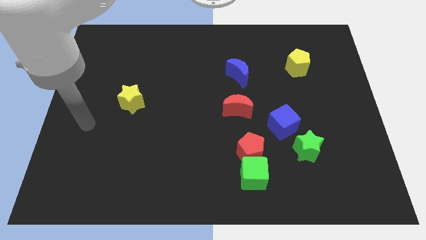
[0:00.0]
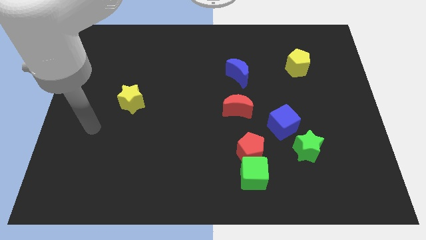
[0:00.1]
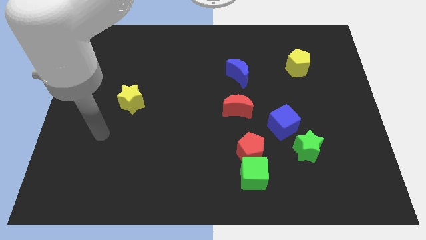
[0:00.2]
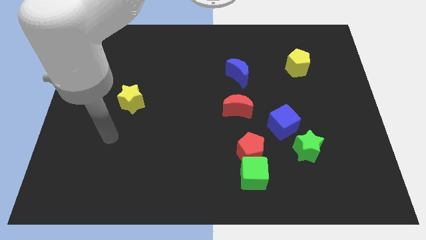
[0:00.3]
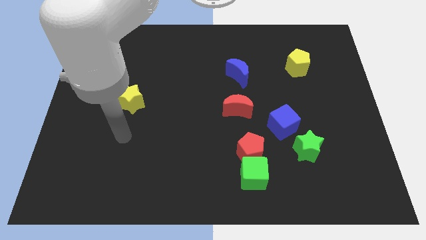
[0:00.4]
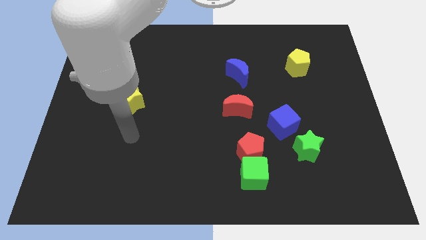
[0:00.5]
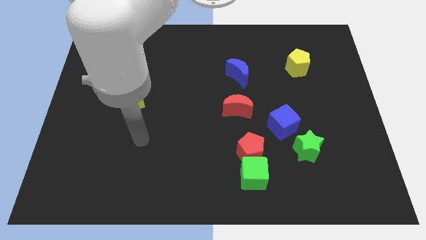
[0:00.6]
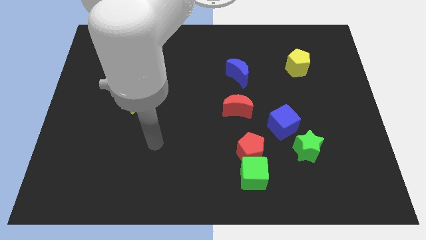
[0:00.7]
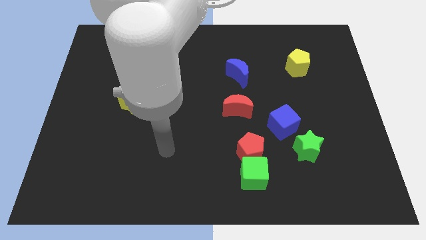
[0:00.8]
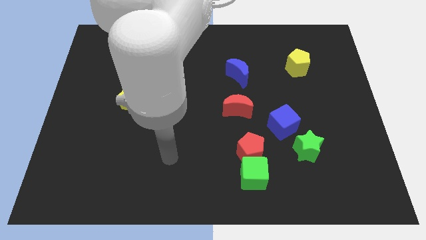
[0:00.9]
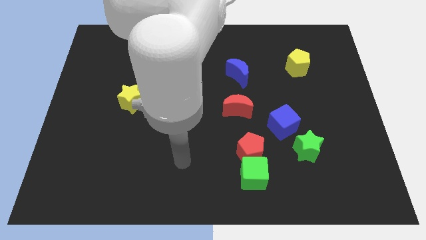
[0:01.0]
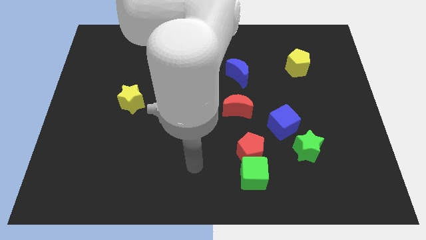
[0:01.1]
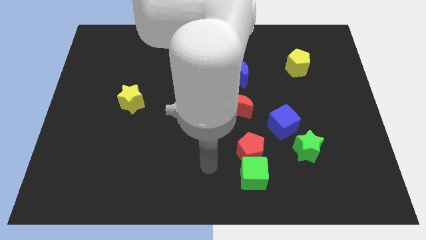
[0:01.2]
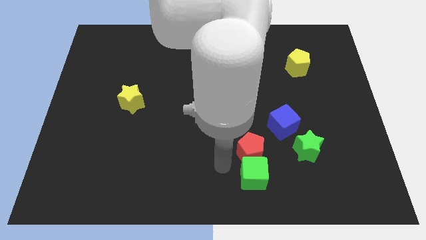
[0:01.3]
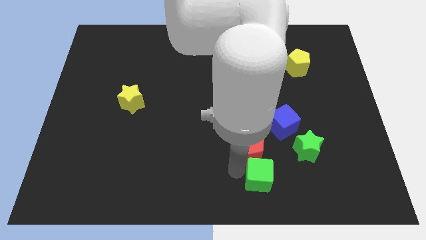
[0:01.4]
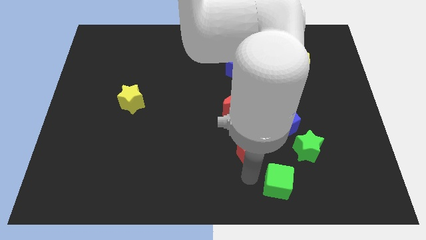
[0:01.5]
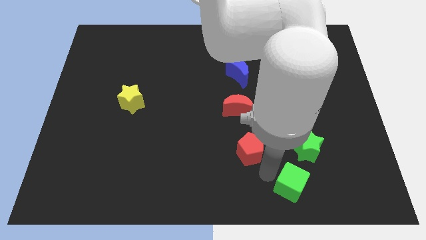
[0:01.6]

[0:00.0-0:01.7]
pull the red pentagon apart from the green cube

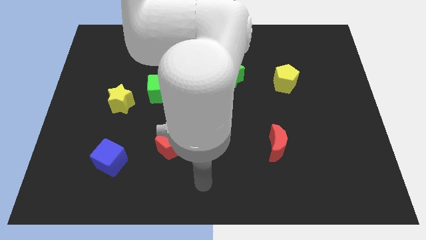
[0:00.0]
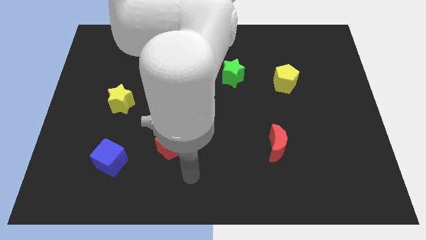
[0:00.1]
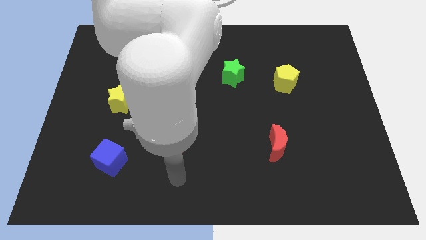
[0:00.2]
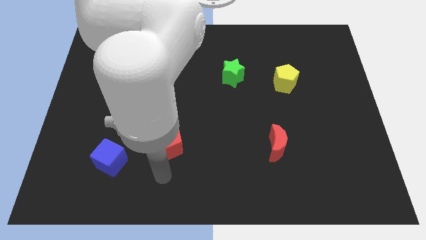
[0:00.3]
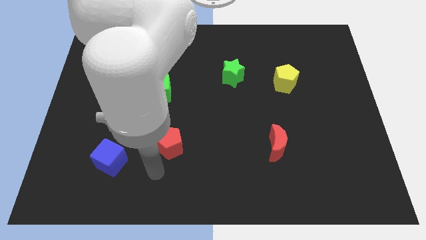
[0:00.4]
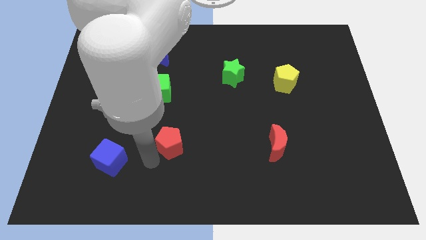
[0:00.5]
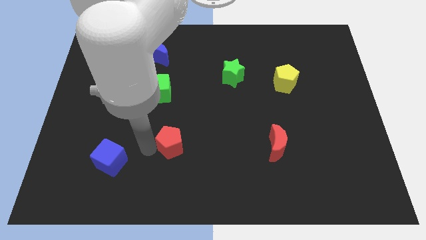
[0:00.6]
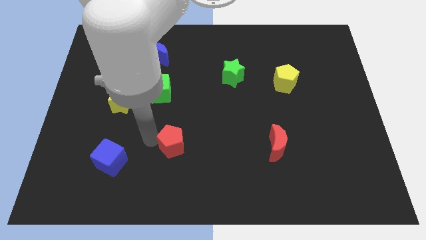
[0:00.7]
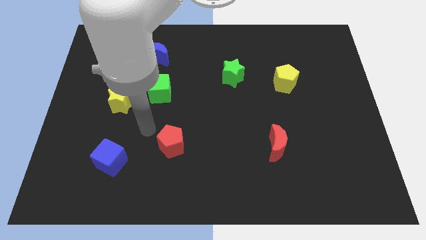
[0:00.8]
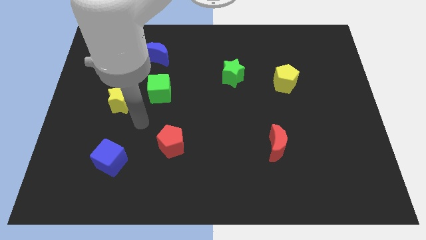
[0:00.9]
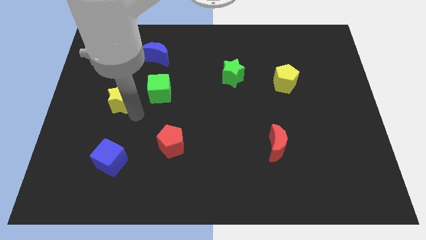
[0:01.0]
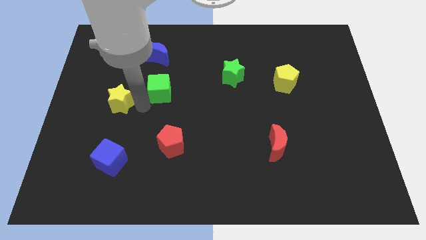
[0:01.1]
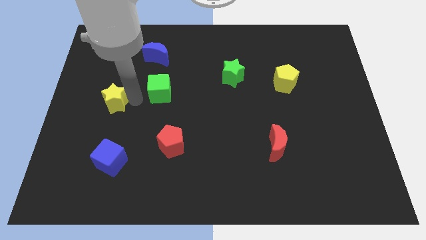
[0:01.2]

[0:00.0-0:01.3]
move the green cube away from the yellow star

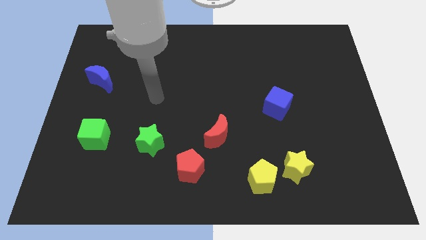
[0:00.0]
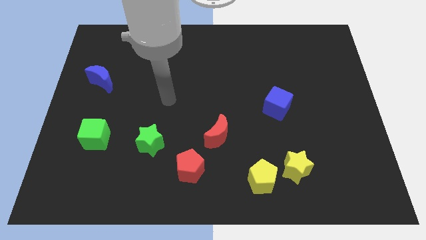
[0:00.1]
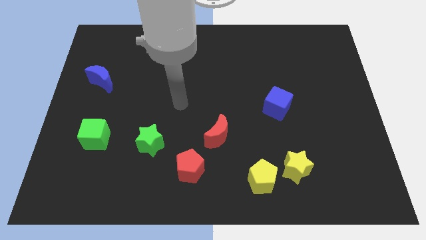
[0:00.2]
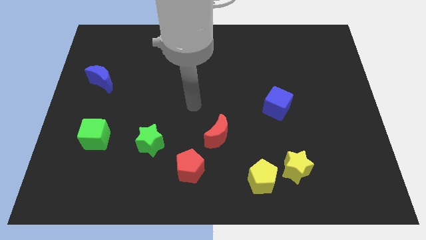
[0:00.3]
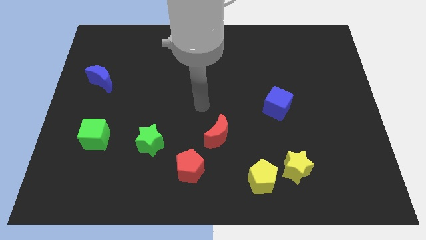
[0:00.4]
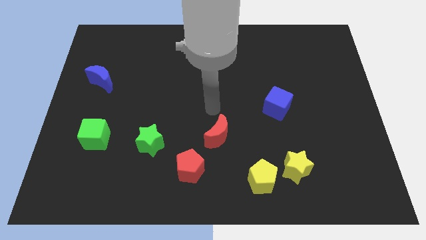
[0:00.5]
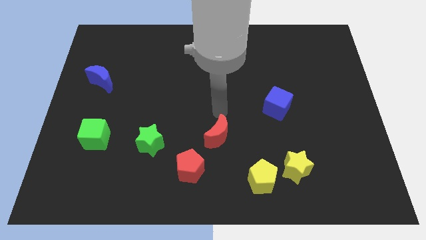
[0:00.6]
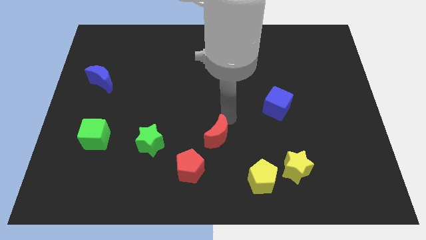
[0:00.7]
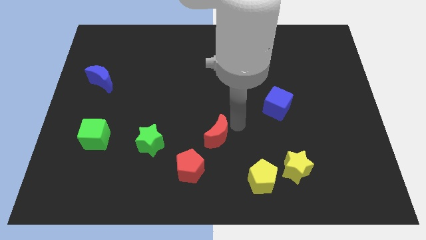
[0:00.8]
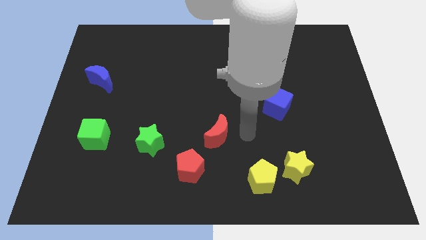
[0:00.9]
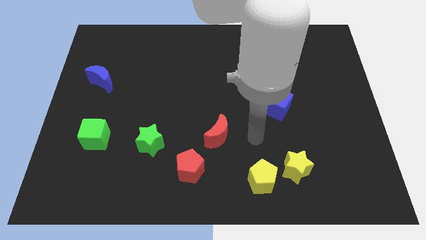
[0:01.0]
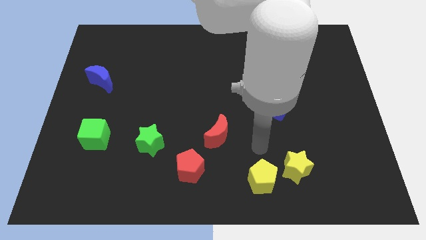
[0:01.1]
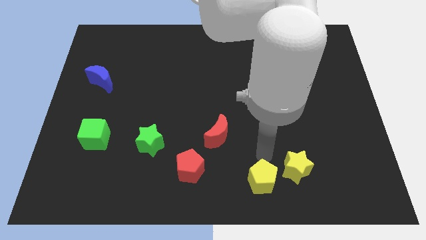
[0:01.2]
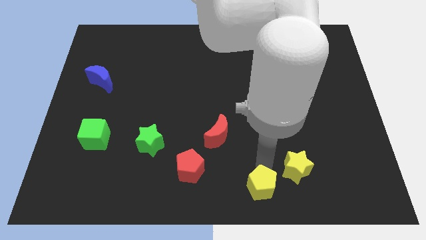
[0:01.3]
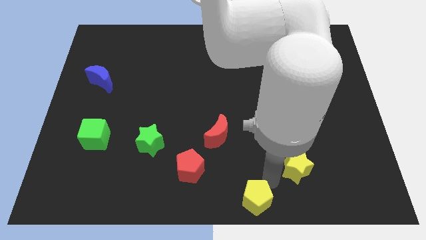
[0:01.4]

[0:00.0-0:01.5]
move the yellow star away from the yellow pentagon

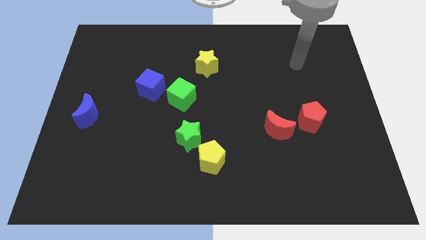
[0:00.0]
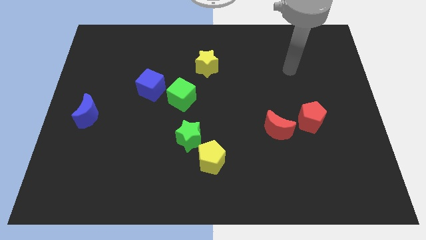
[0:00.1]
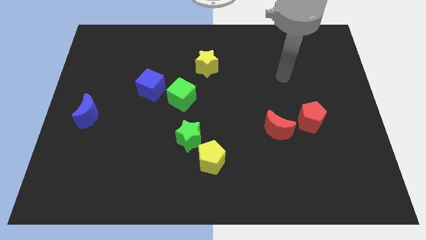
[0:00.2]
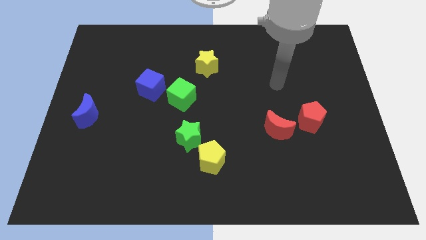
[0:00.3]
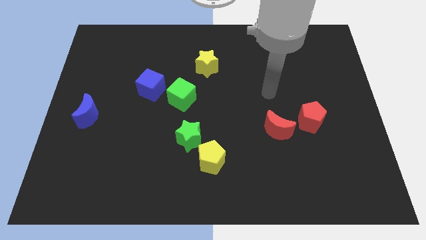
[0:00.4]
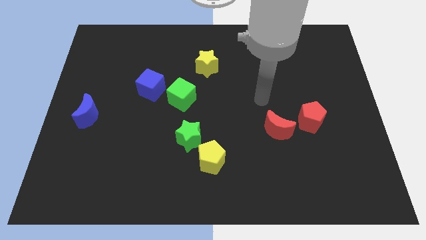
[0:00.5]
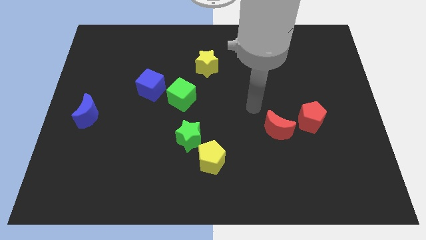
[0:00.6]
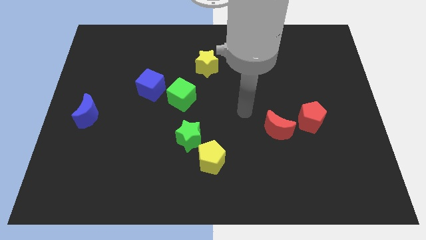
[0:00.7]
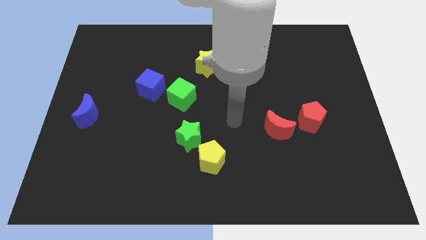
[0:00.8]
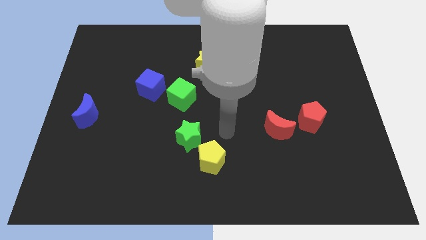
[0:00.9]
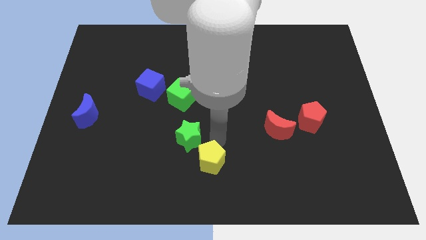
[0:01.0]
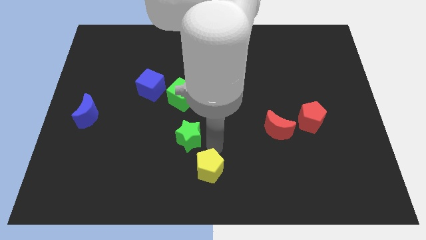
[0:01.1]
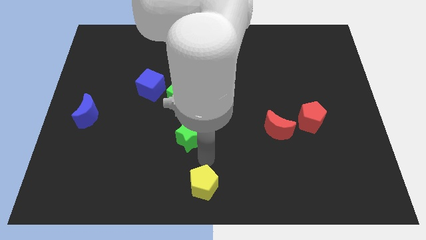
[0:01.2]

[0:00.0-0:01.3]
pull the green star apart from the yellow pentagon

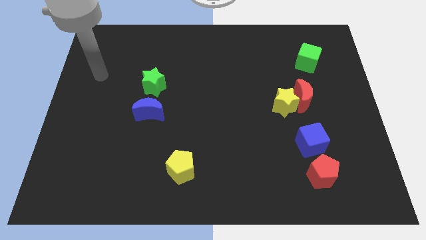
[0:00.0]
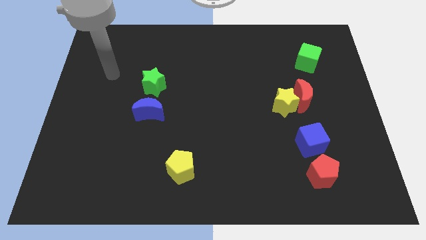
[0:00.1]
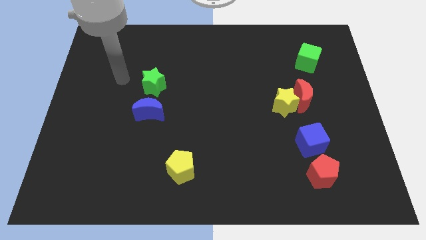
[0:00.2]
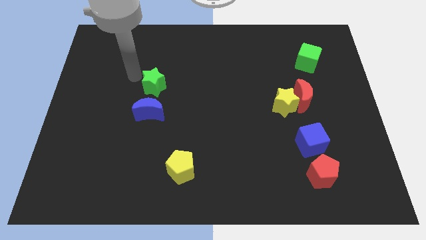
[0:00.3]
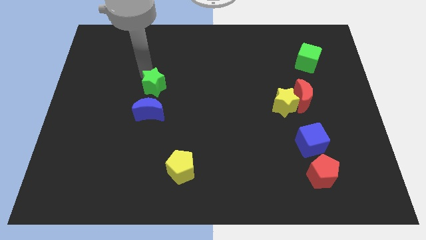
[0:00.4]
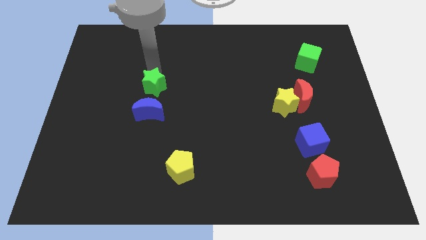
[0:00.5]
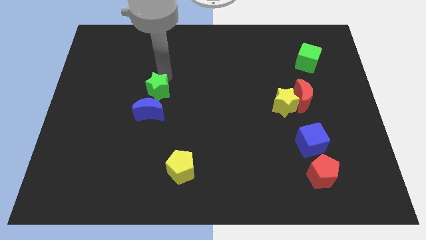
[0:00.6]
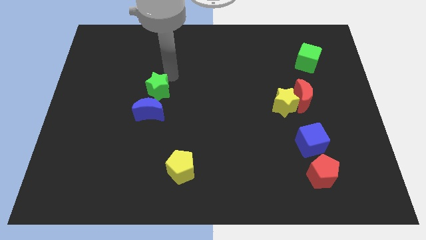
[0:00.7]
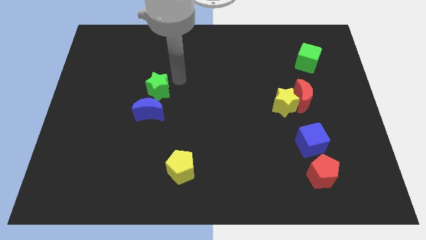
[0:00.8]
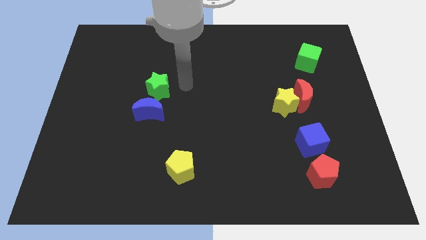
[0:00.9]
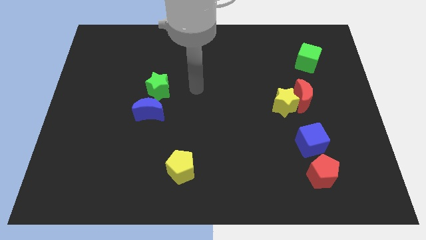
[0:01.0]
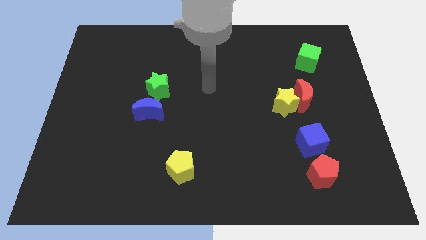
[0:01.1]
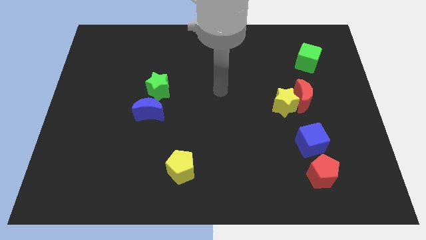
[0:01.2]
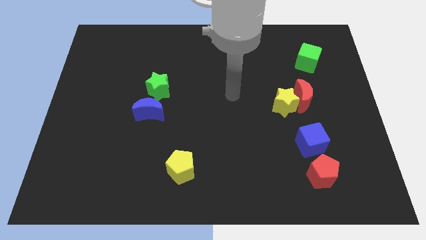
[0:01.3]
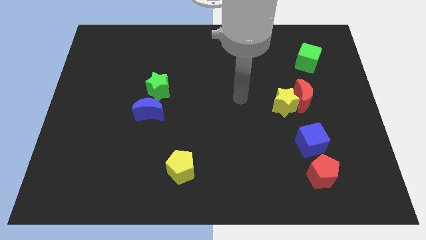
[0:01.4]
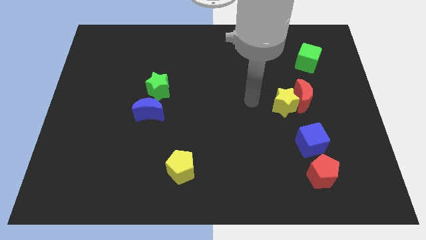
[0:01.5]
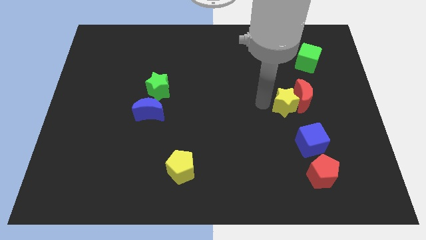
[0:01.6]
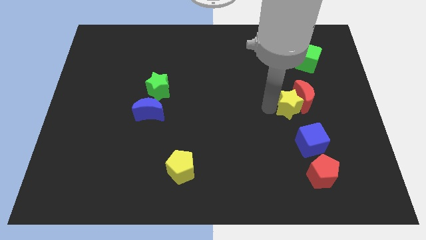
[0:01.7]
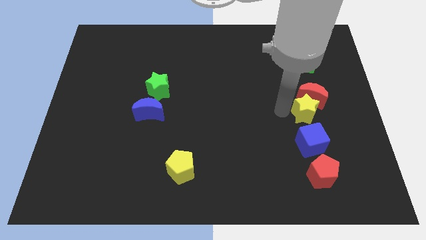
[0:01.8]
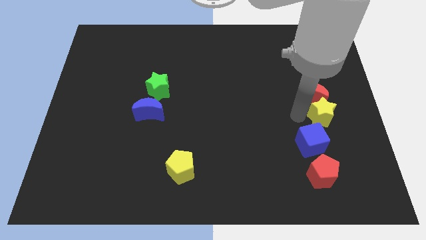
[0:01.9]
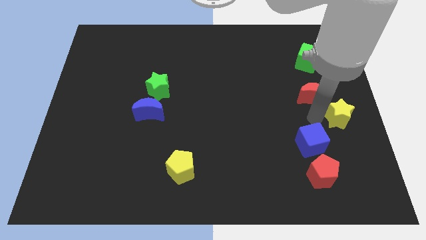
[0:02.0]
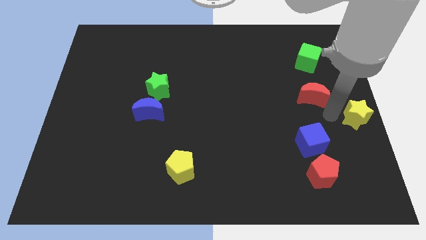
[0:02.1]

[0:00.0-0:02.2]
move the red moon away from the yellow star

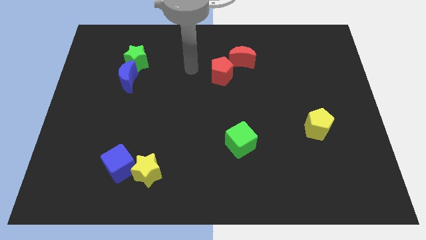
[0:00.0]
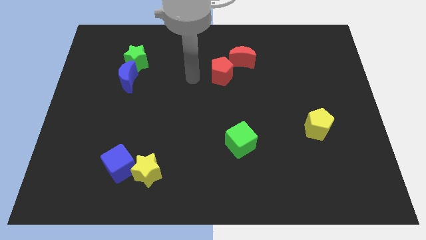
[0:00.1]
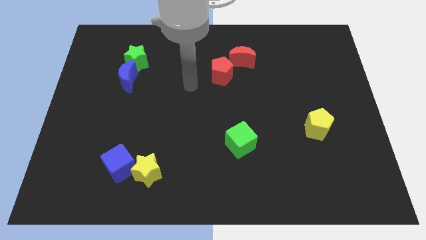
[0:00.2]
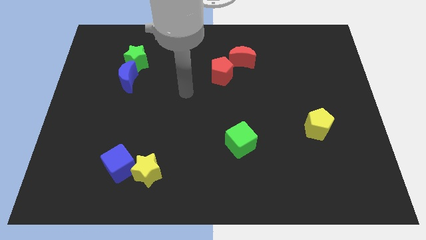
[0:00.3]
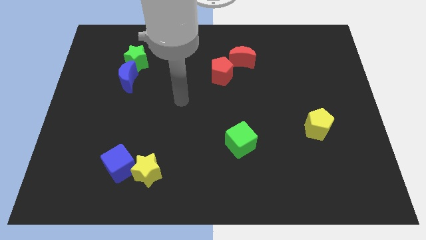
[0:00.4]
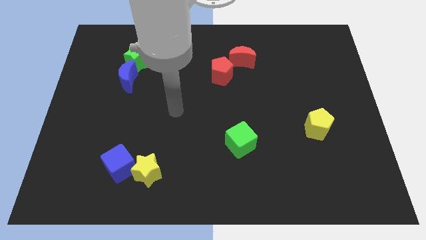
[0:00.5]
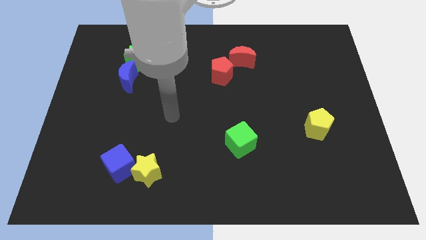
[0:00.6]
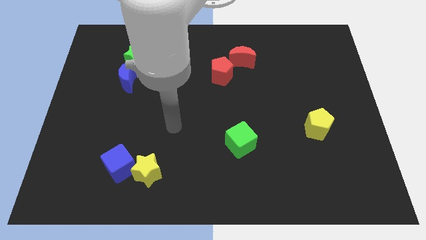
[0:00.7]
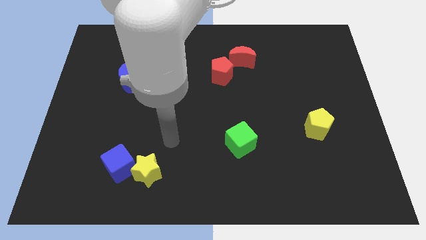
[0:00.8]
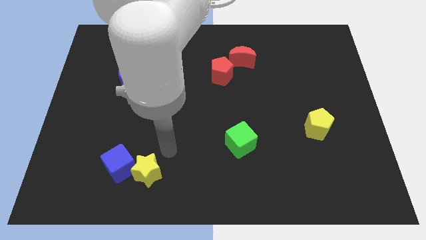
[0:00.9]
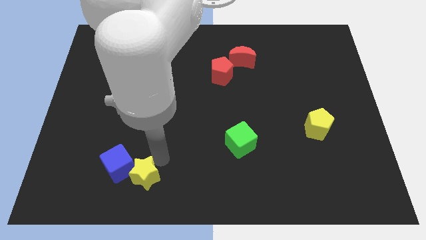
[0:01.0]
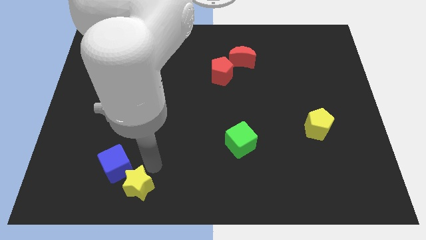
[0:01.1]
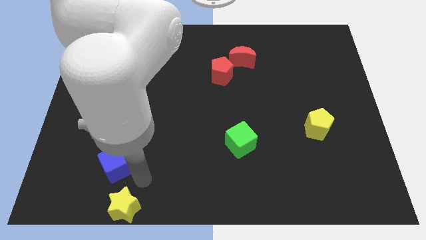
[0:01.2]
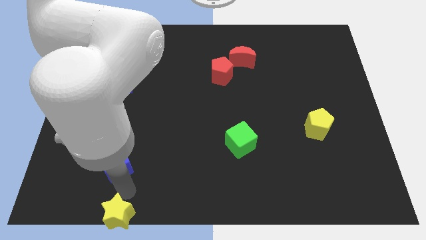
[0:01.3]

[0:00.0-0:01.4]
separate the blue cube from the yellow star
